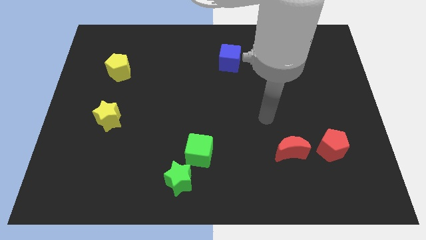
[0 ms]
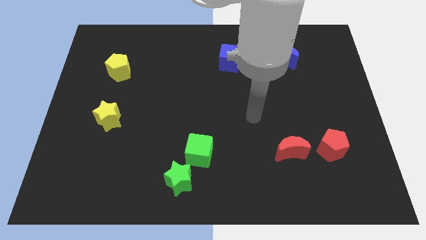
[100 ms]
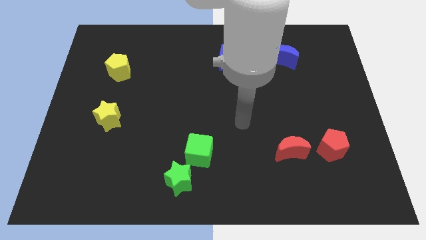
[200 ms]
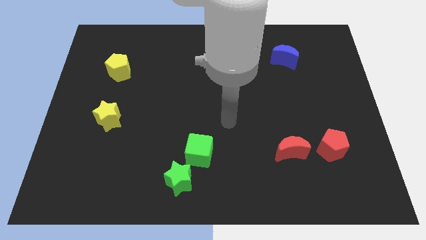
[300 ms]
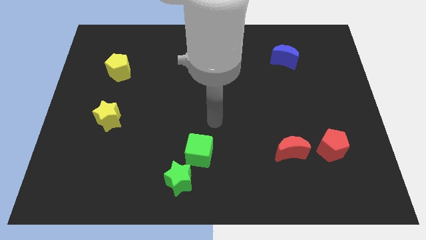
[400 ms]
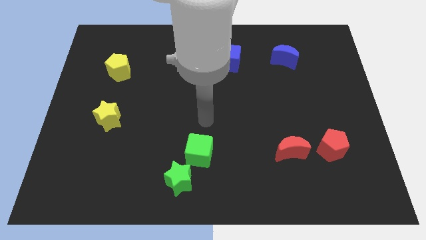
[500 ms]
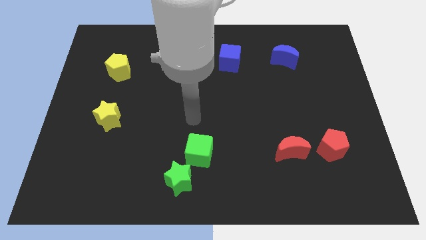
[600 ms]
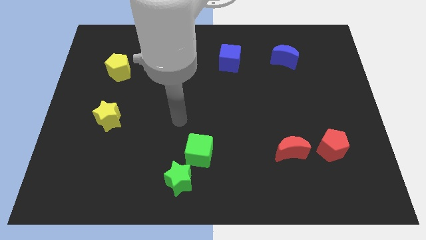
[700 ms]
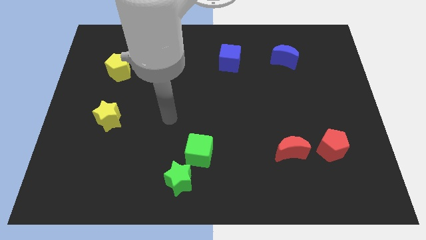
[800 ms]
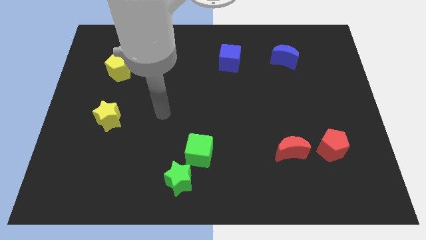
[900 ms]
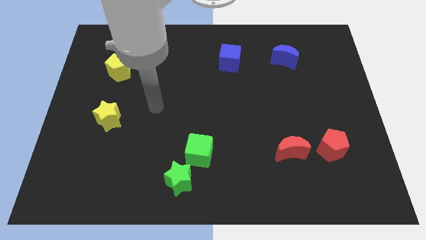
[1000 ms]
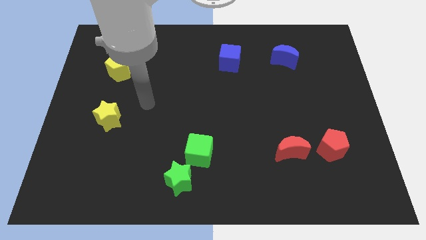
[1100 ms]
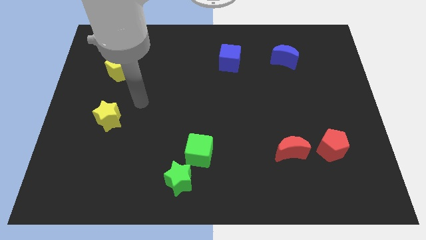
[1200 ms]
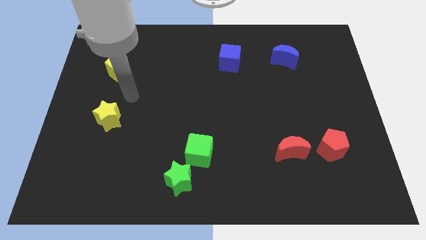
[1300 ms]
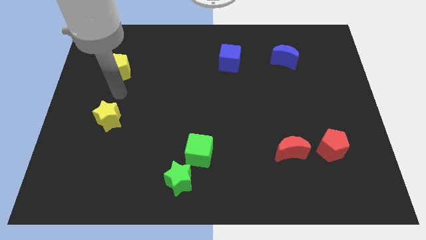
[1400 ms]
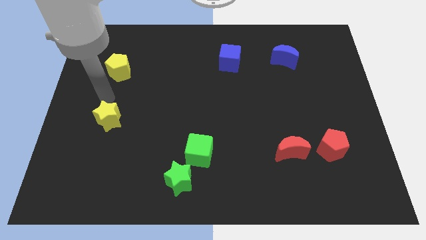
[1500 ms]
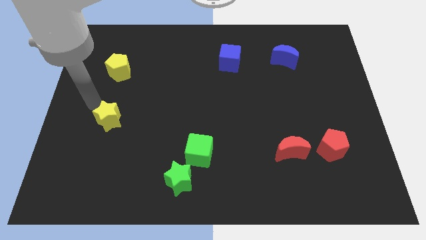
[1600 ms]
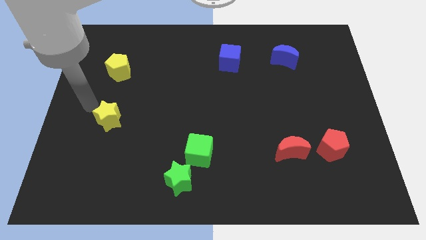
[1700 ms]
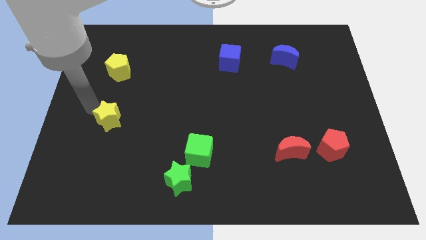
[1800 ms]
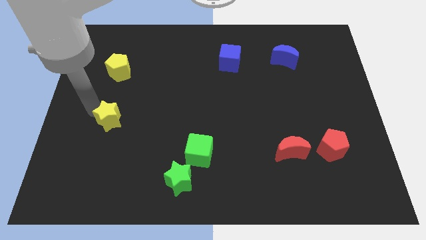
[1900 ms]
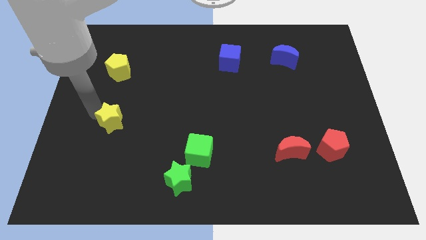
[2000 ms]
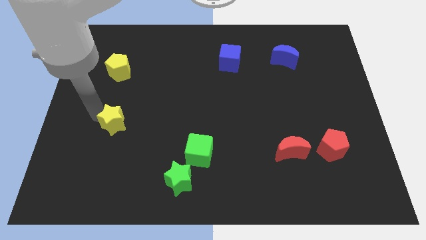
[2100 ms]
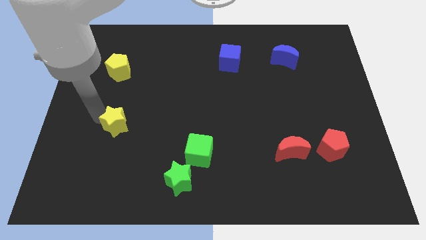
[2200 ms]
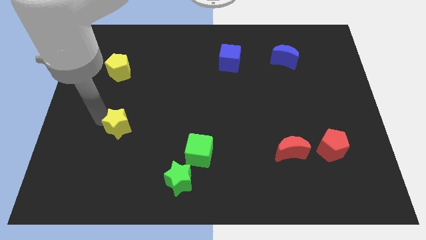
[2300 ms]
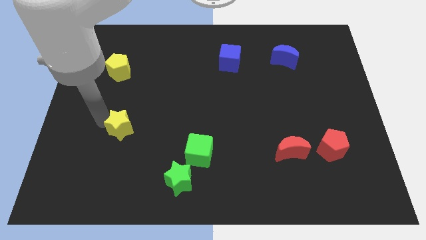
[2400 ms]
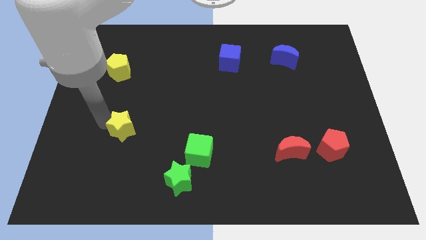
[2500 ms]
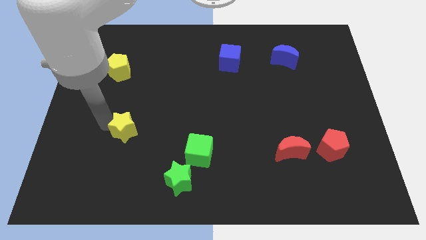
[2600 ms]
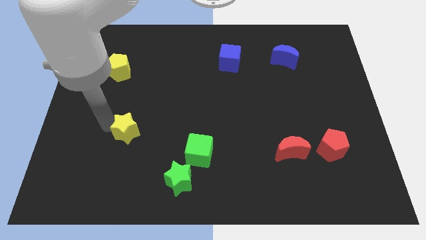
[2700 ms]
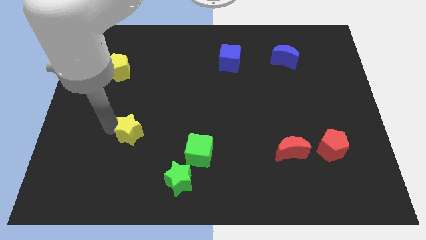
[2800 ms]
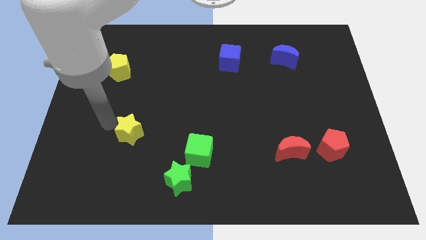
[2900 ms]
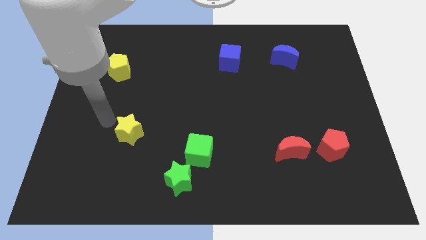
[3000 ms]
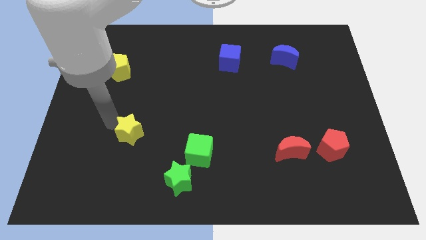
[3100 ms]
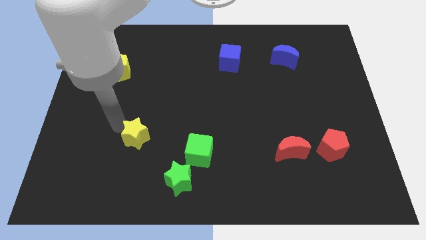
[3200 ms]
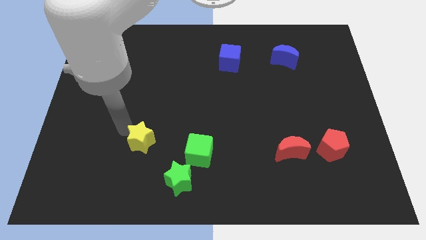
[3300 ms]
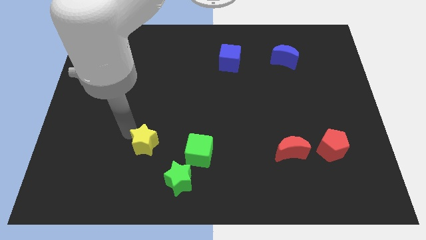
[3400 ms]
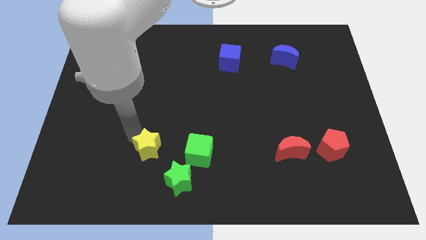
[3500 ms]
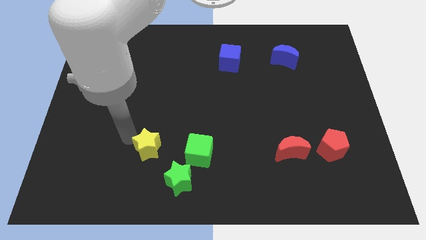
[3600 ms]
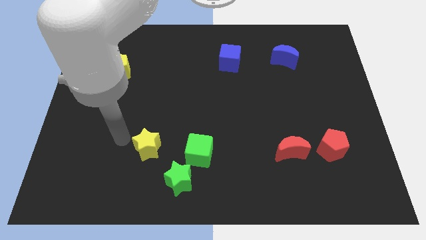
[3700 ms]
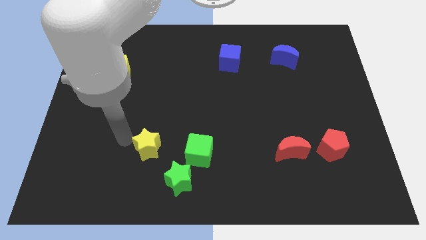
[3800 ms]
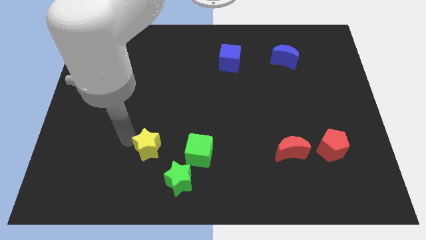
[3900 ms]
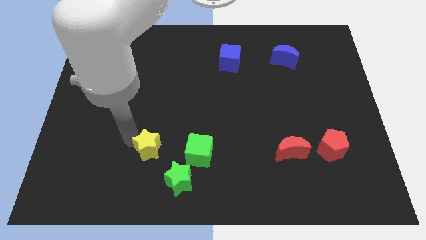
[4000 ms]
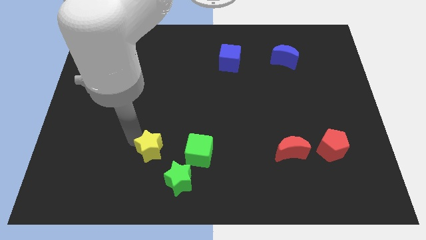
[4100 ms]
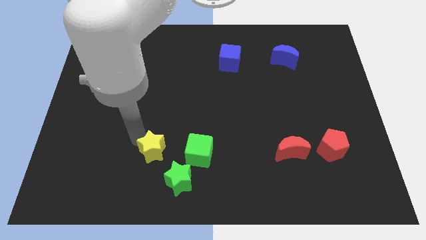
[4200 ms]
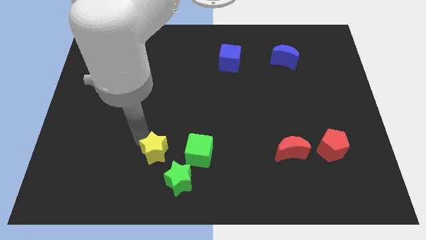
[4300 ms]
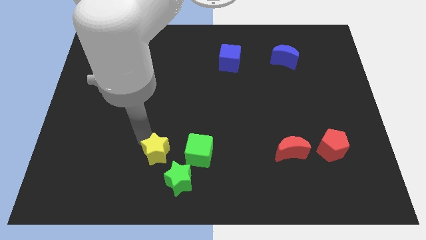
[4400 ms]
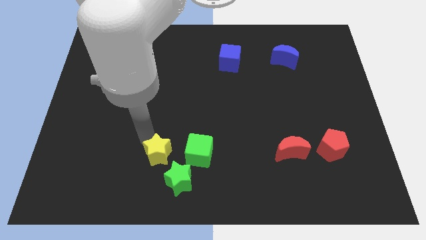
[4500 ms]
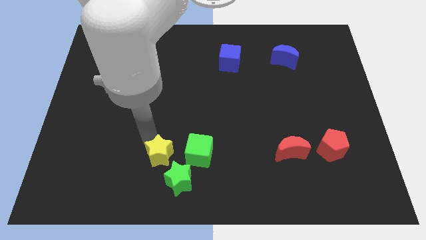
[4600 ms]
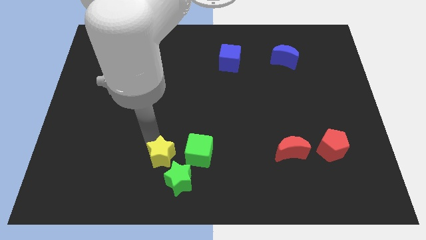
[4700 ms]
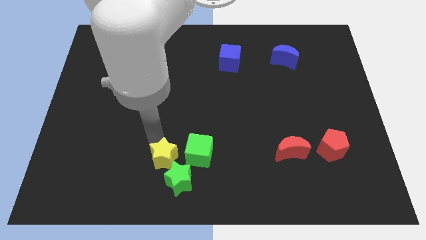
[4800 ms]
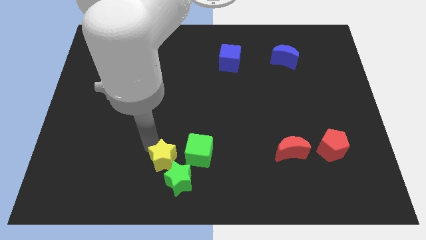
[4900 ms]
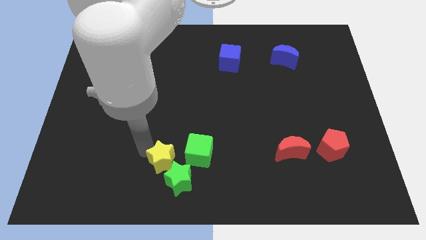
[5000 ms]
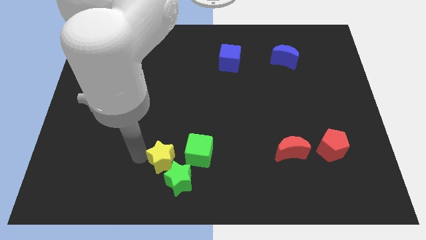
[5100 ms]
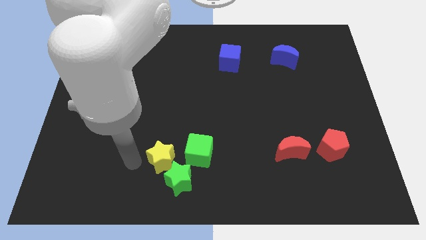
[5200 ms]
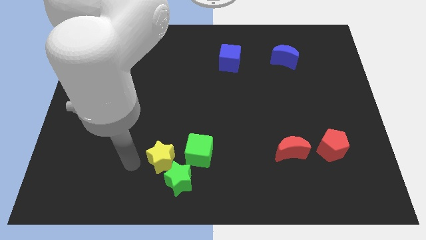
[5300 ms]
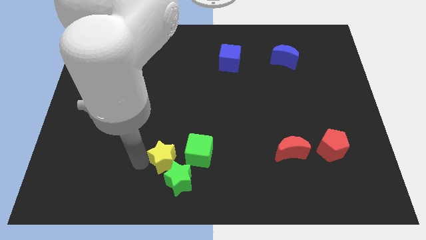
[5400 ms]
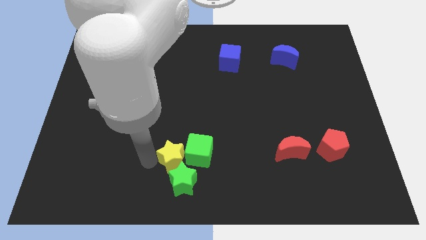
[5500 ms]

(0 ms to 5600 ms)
move the yellow star to the green cube

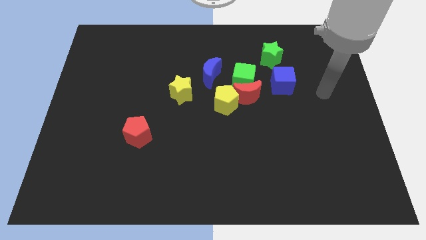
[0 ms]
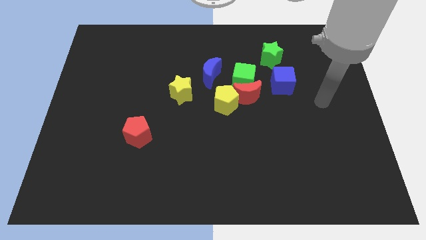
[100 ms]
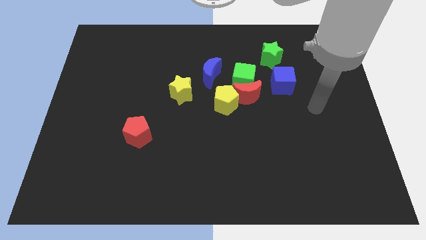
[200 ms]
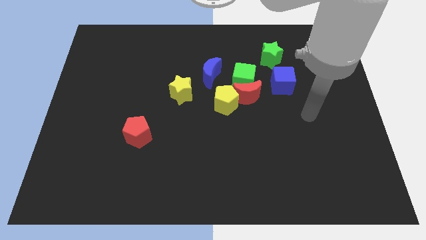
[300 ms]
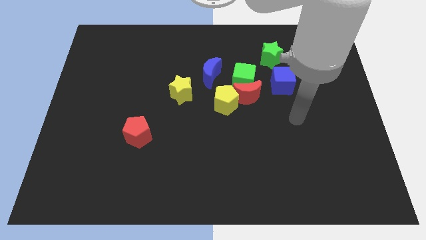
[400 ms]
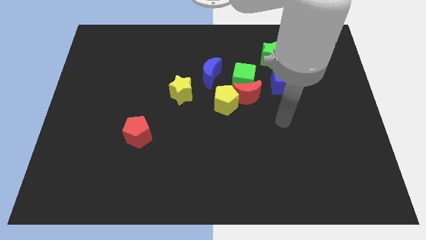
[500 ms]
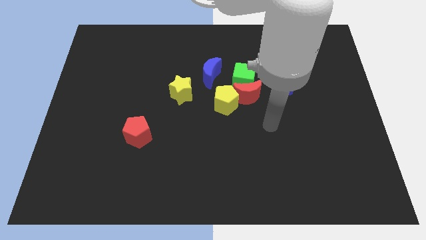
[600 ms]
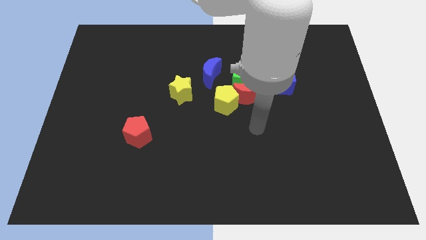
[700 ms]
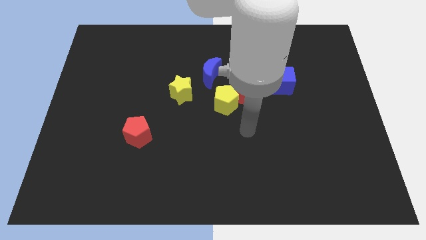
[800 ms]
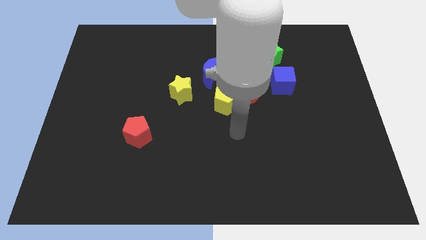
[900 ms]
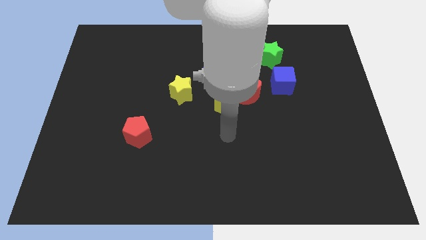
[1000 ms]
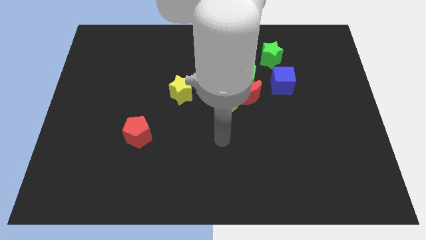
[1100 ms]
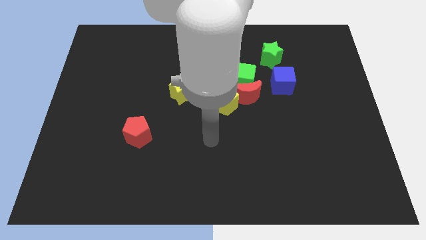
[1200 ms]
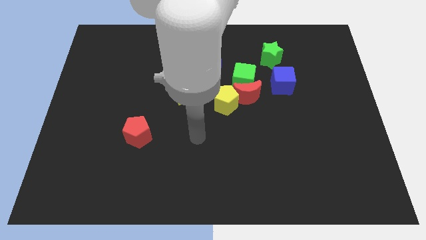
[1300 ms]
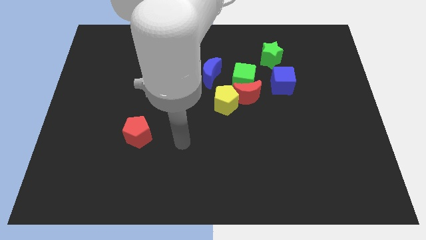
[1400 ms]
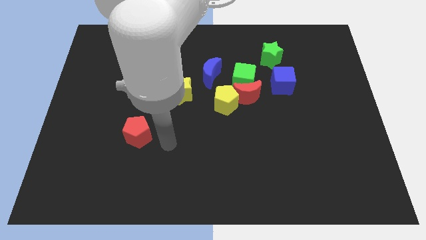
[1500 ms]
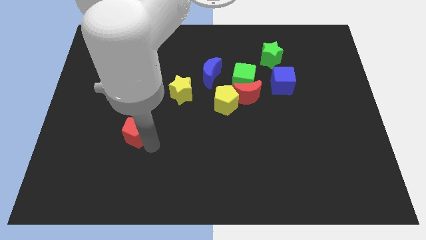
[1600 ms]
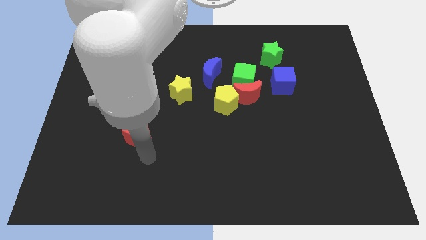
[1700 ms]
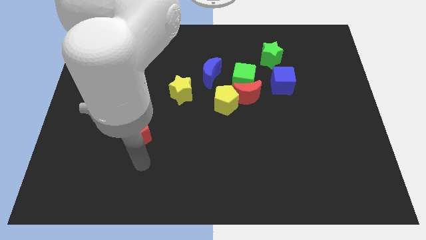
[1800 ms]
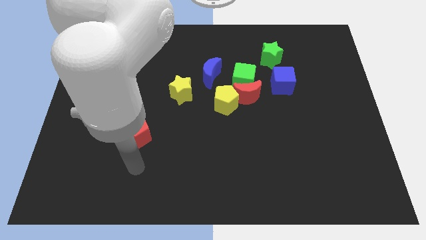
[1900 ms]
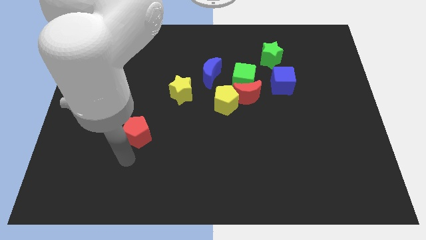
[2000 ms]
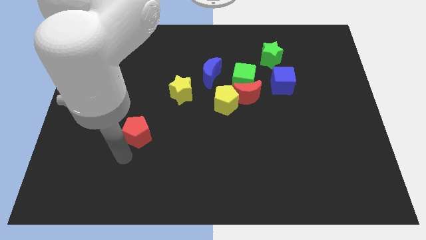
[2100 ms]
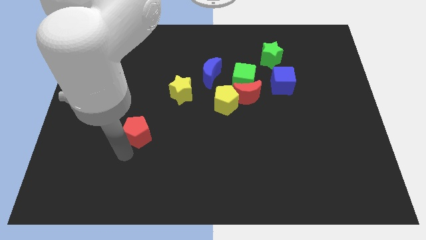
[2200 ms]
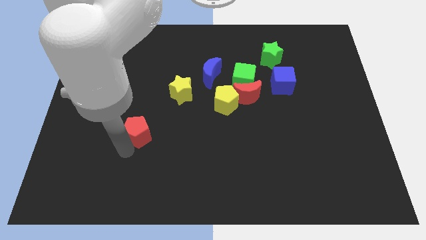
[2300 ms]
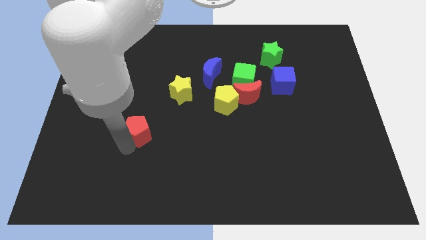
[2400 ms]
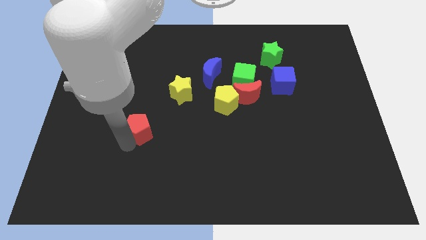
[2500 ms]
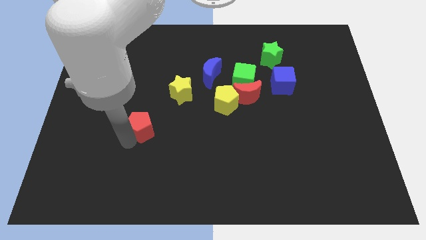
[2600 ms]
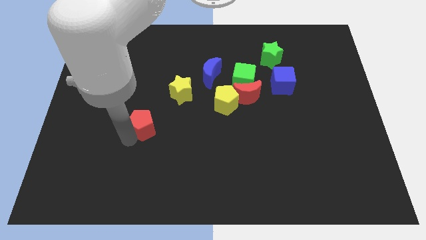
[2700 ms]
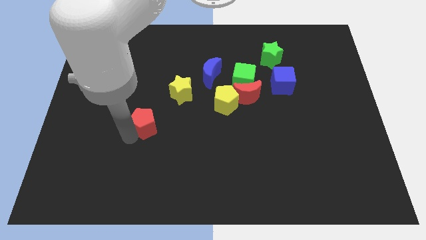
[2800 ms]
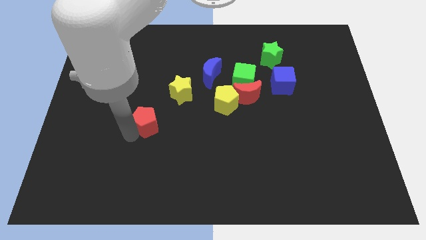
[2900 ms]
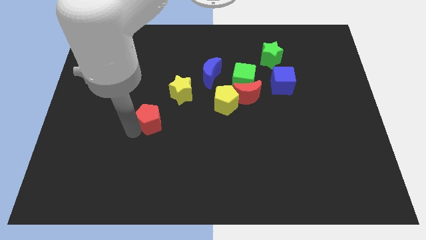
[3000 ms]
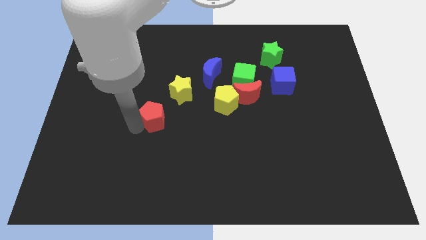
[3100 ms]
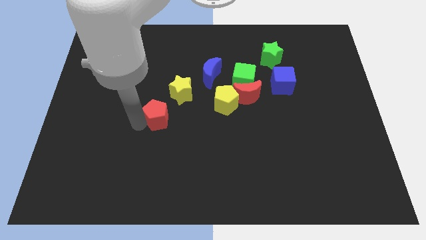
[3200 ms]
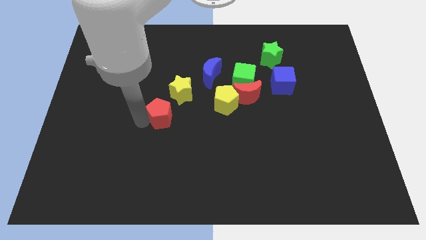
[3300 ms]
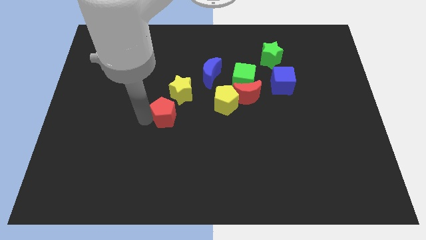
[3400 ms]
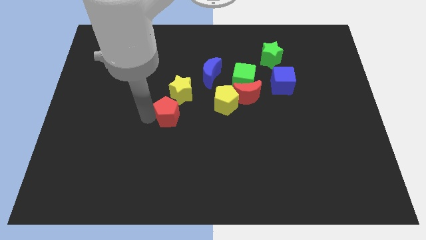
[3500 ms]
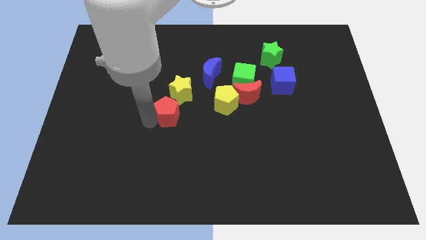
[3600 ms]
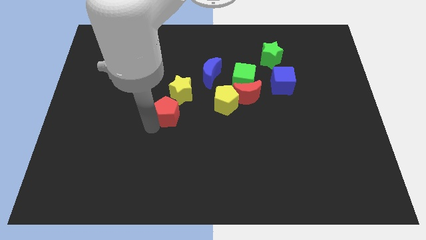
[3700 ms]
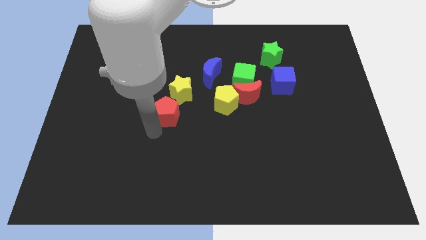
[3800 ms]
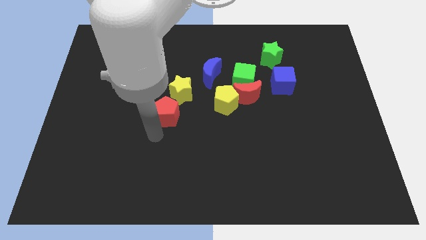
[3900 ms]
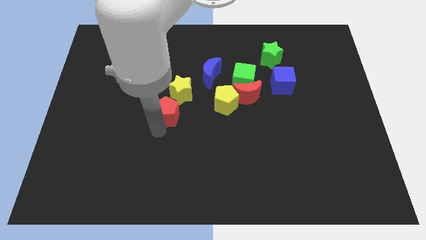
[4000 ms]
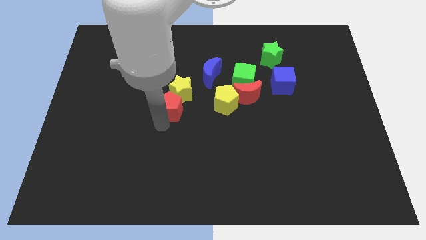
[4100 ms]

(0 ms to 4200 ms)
put the red pentagon close to the yellow star
